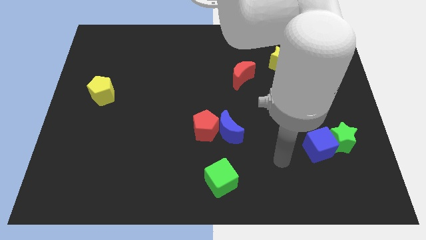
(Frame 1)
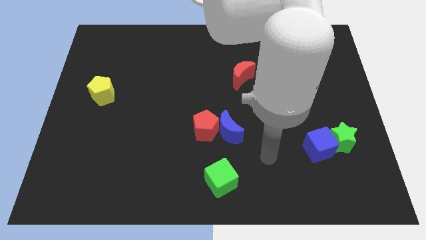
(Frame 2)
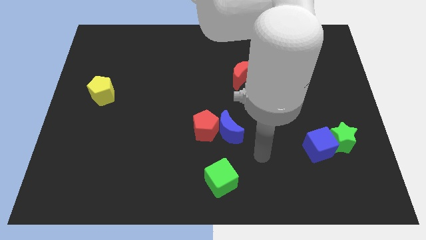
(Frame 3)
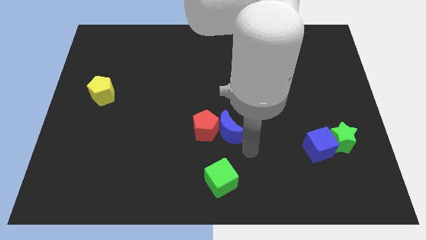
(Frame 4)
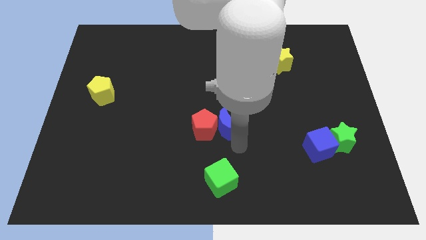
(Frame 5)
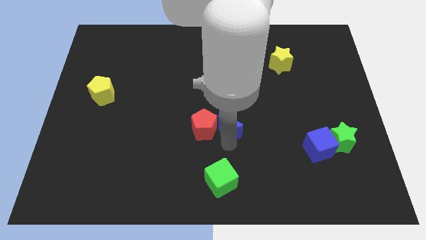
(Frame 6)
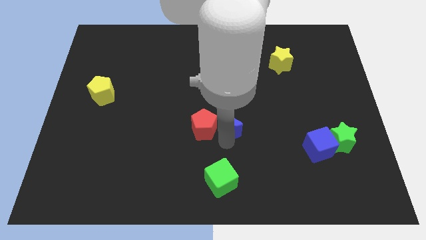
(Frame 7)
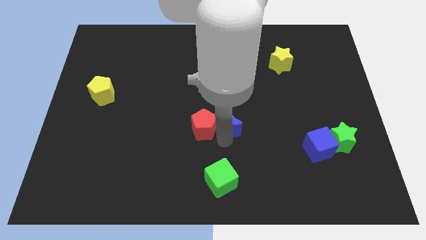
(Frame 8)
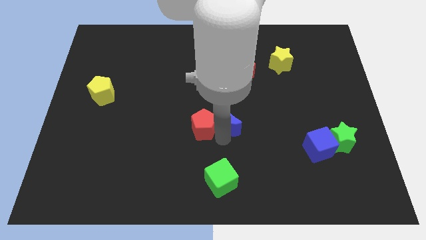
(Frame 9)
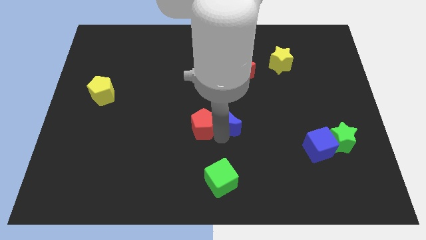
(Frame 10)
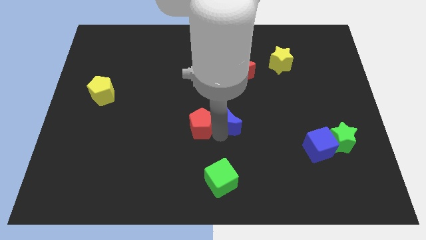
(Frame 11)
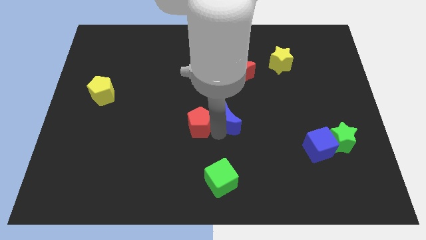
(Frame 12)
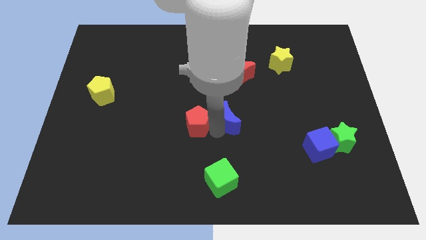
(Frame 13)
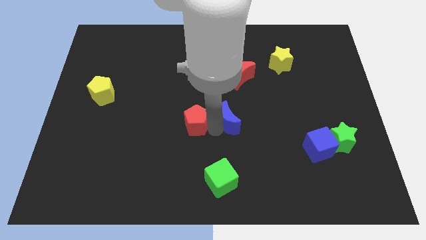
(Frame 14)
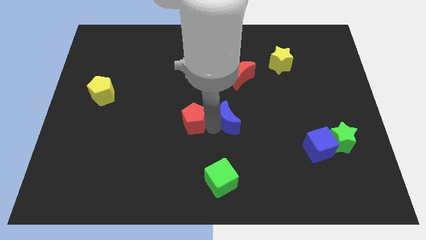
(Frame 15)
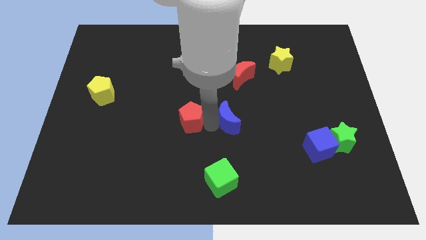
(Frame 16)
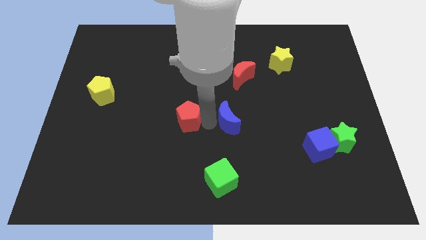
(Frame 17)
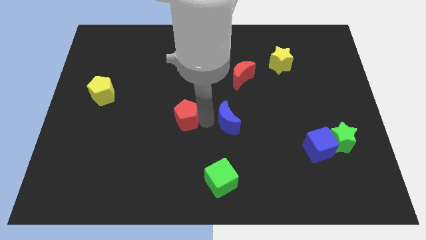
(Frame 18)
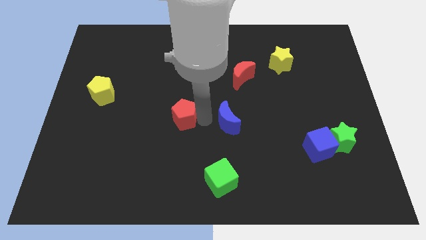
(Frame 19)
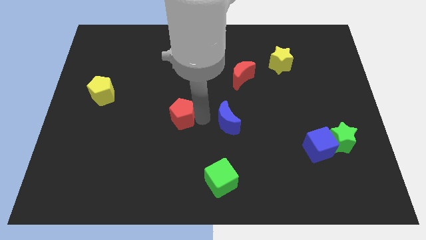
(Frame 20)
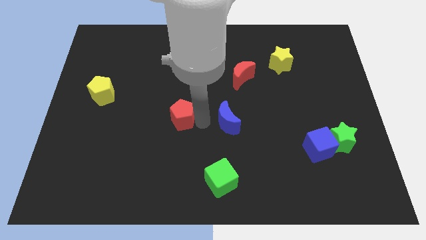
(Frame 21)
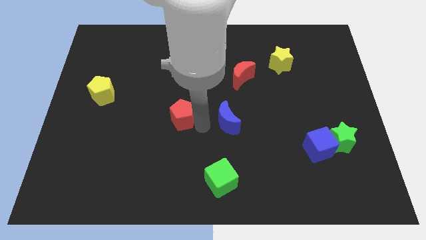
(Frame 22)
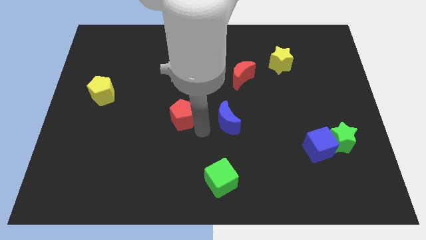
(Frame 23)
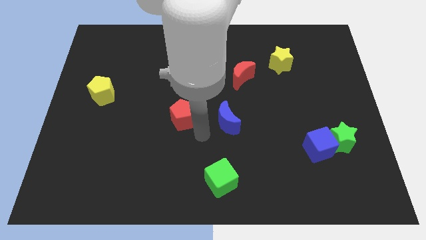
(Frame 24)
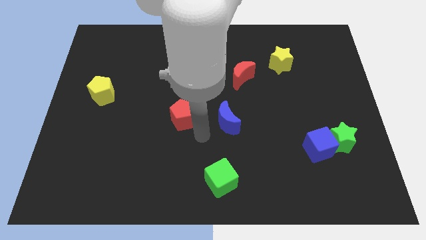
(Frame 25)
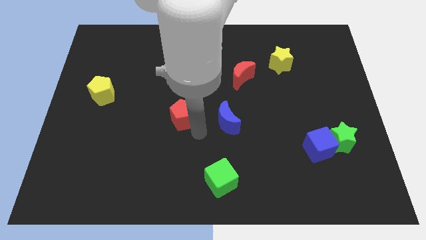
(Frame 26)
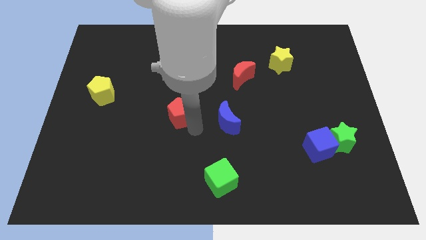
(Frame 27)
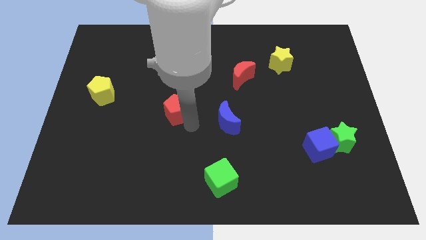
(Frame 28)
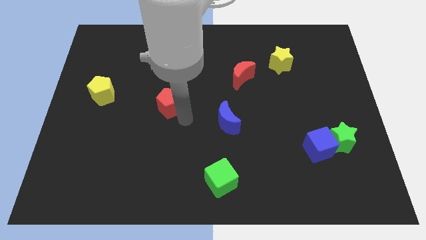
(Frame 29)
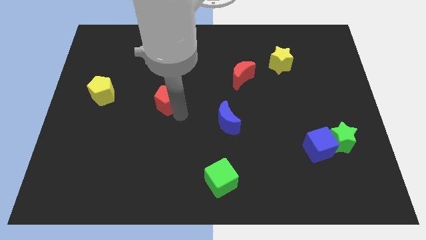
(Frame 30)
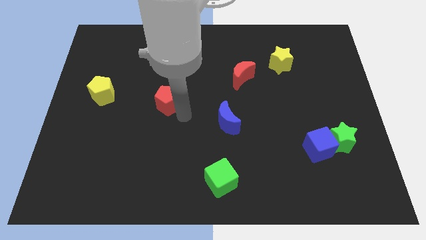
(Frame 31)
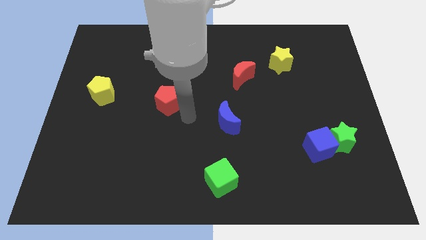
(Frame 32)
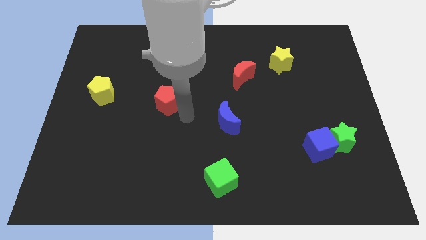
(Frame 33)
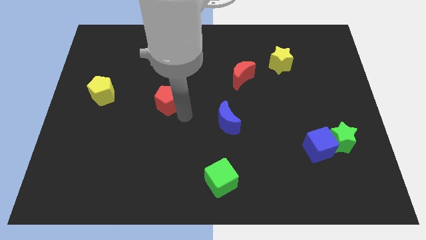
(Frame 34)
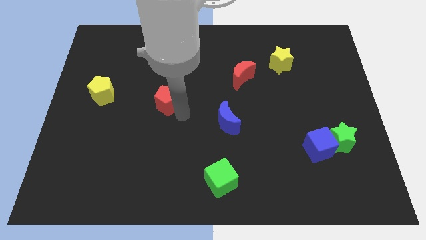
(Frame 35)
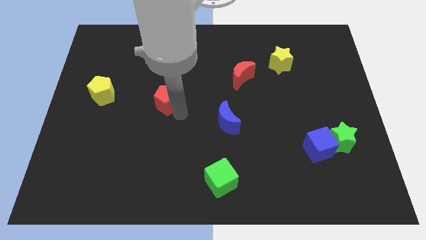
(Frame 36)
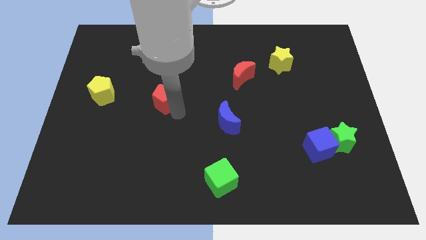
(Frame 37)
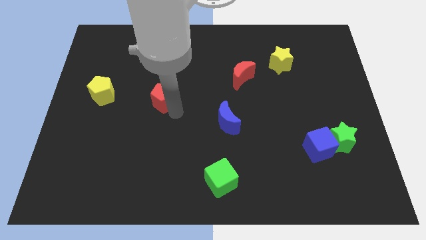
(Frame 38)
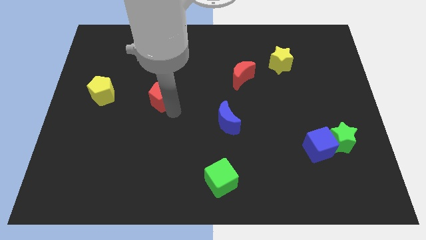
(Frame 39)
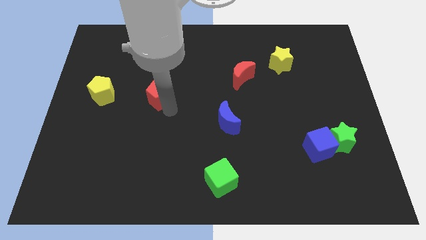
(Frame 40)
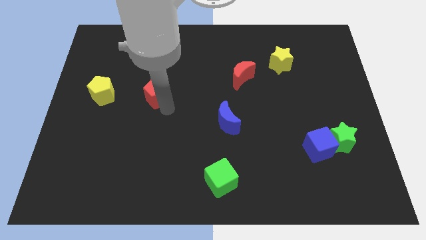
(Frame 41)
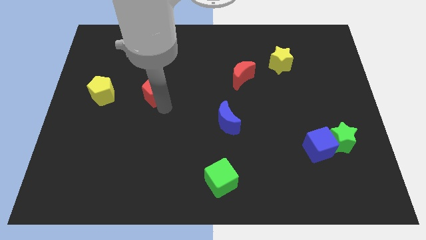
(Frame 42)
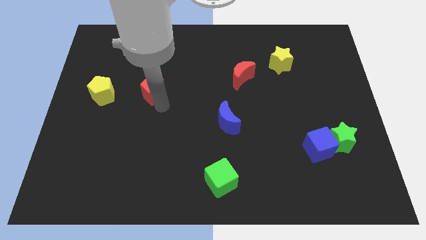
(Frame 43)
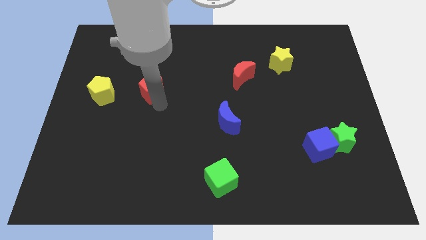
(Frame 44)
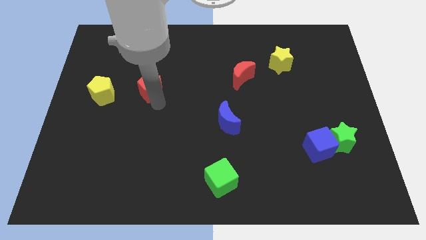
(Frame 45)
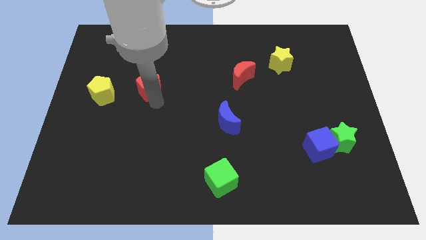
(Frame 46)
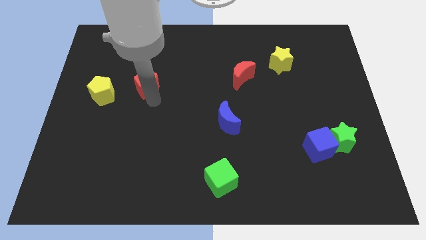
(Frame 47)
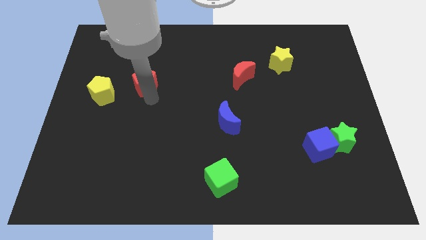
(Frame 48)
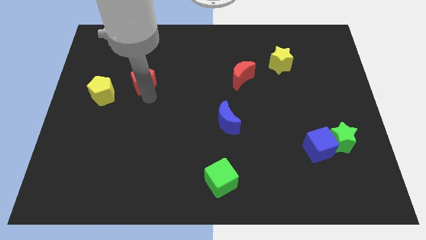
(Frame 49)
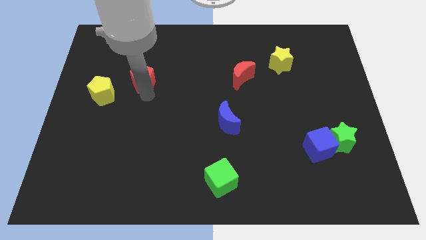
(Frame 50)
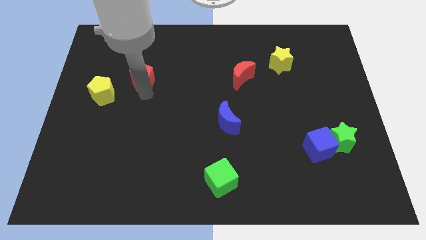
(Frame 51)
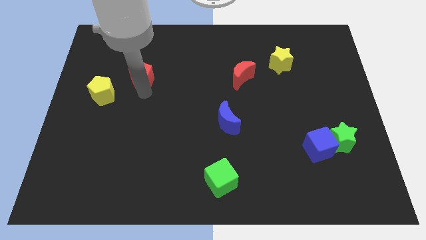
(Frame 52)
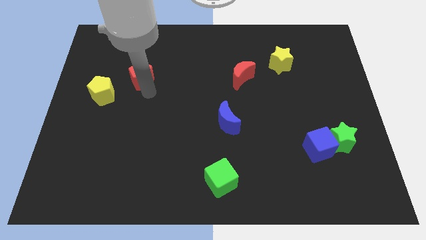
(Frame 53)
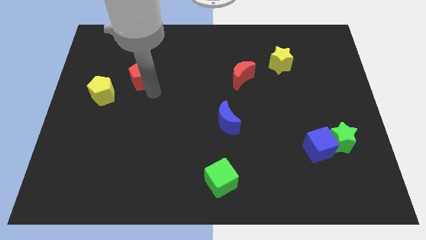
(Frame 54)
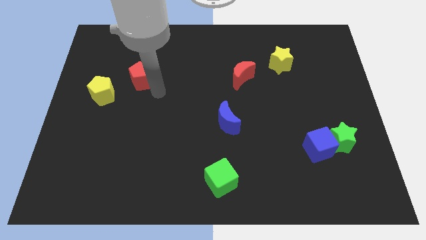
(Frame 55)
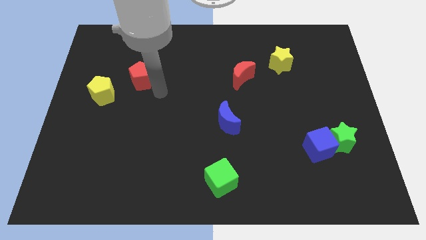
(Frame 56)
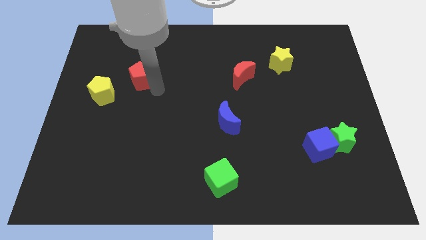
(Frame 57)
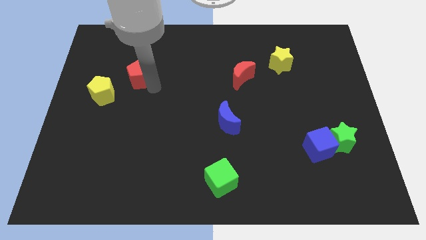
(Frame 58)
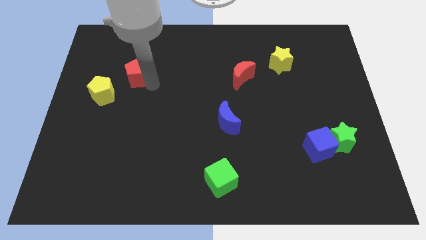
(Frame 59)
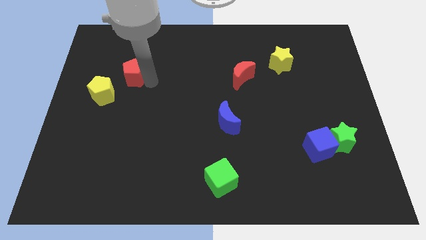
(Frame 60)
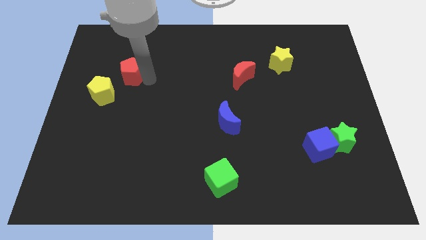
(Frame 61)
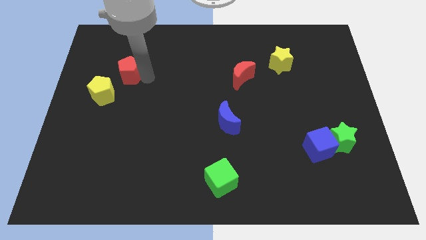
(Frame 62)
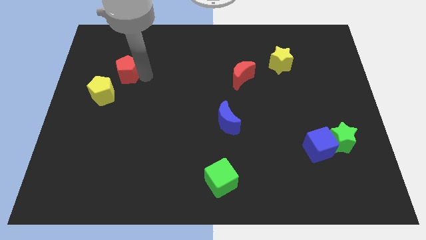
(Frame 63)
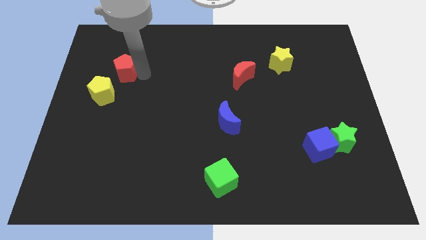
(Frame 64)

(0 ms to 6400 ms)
slide the red pentagon above the yellow pentagon
